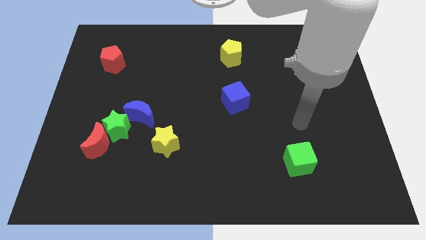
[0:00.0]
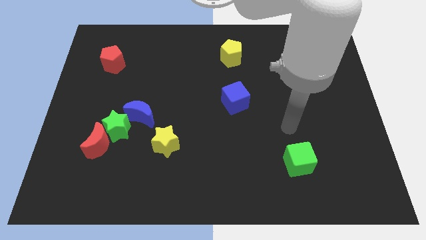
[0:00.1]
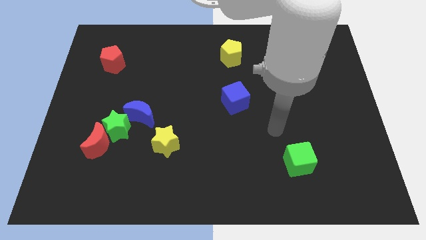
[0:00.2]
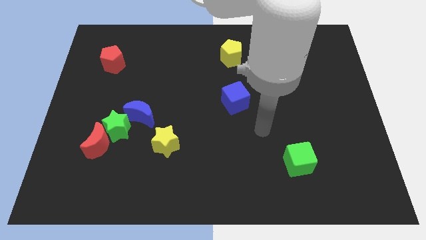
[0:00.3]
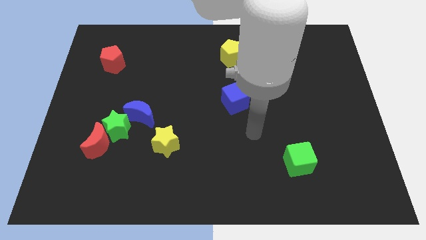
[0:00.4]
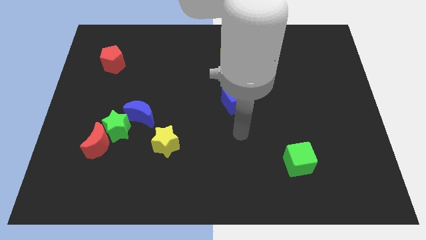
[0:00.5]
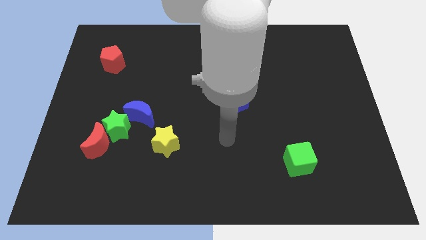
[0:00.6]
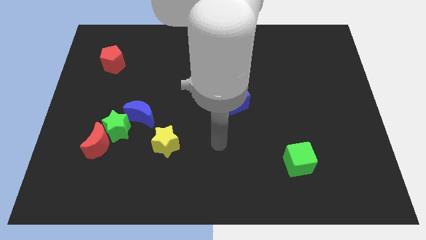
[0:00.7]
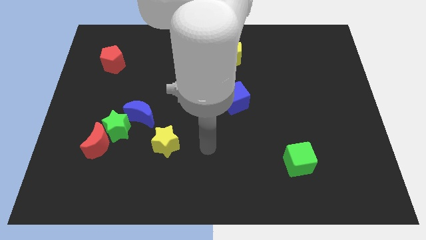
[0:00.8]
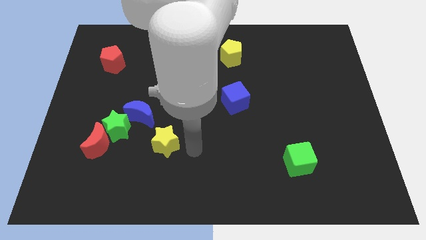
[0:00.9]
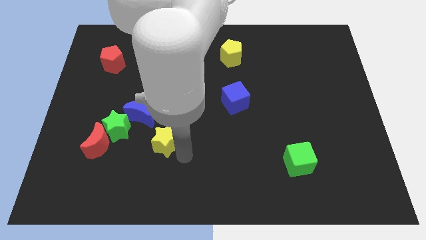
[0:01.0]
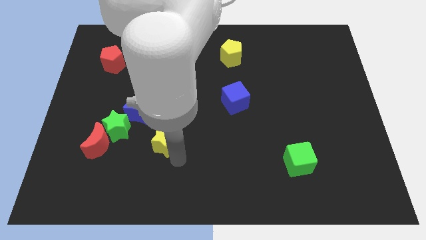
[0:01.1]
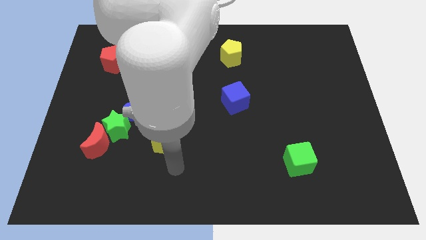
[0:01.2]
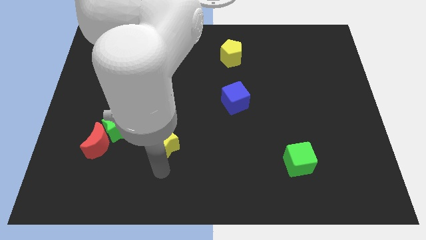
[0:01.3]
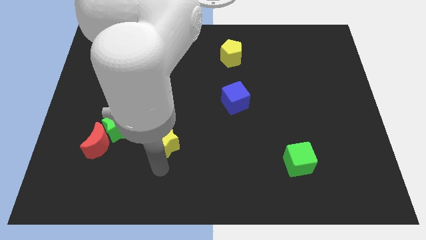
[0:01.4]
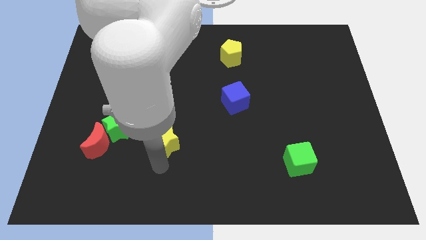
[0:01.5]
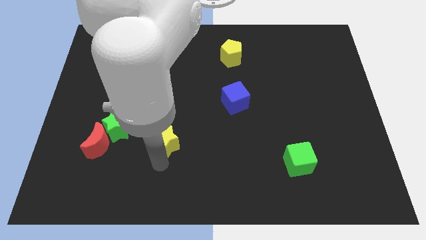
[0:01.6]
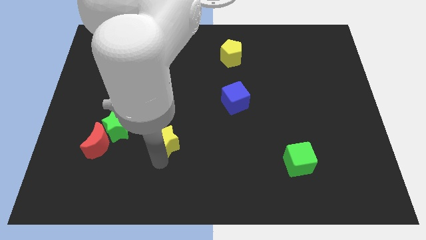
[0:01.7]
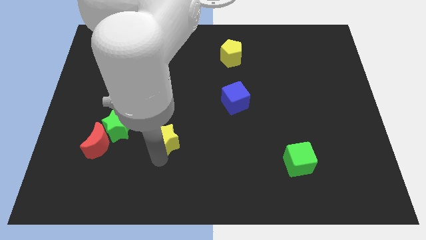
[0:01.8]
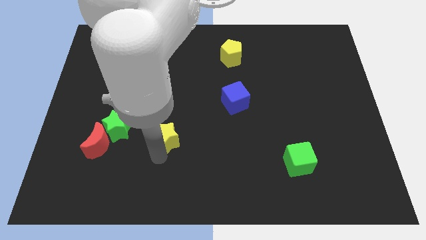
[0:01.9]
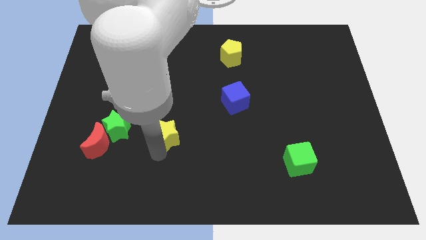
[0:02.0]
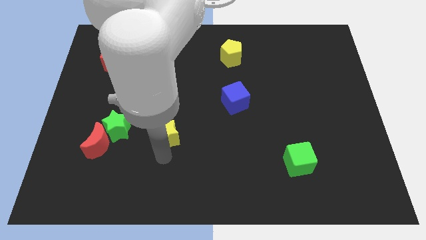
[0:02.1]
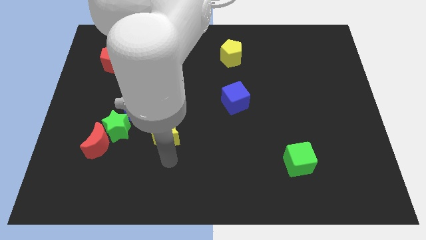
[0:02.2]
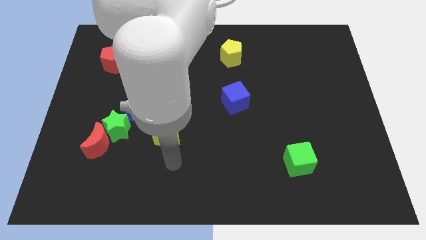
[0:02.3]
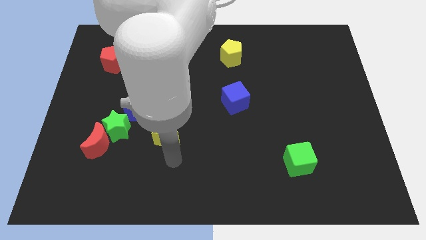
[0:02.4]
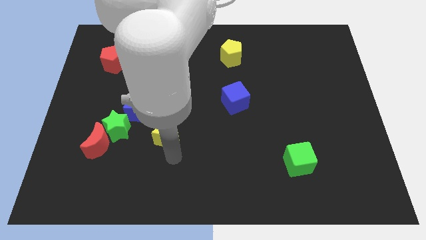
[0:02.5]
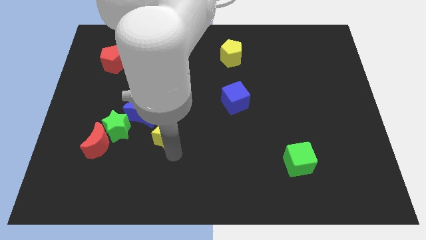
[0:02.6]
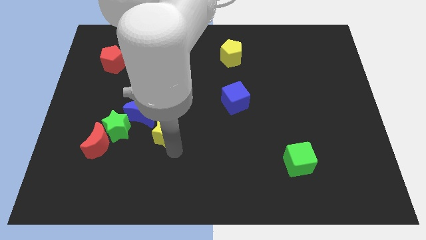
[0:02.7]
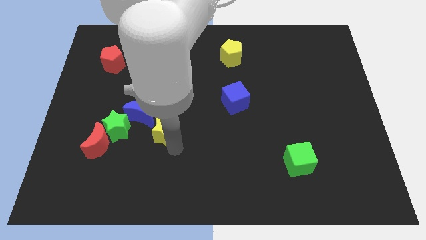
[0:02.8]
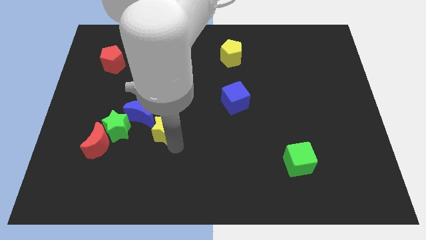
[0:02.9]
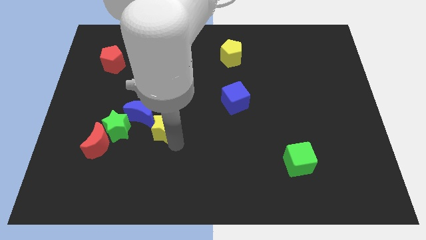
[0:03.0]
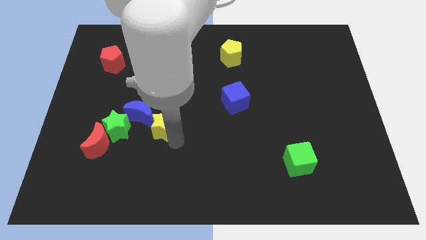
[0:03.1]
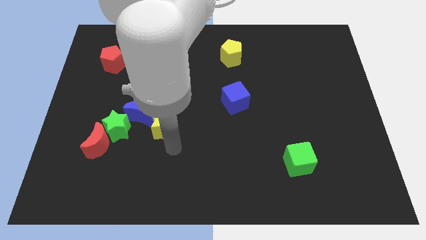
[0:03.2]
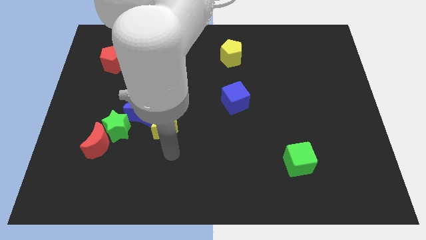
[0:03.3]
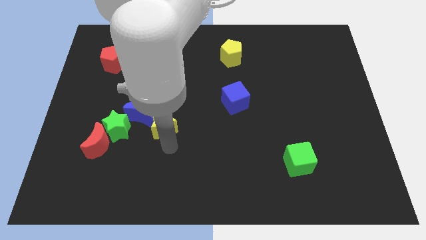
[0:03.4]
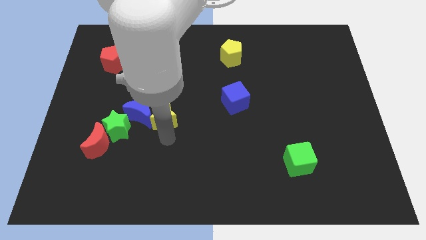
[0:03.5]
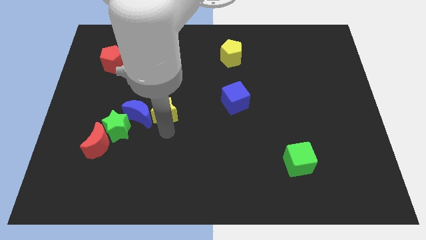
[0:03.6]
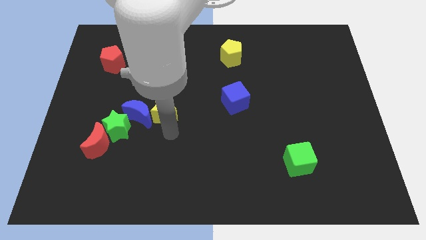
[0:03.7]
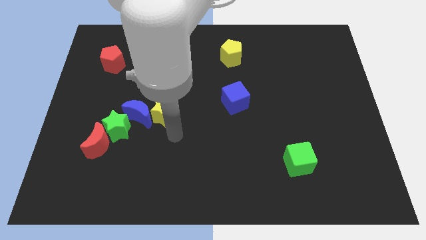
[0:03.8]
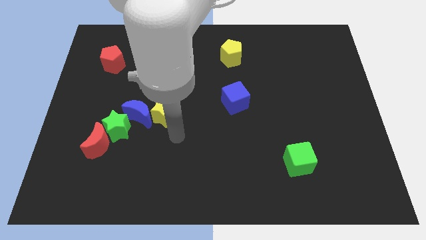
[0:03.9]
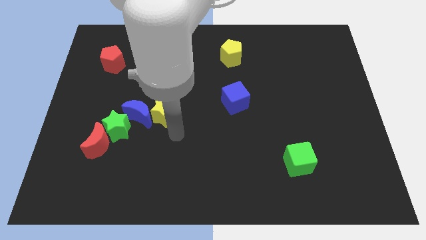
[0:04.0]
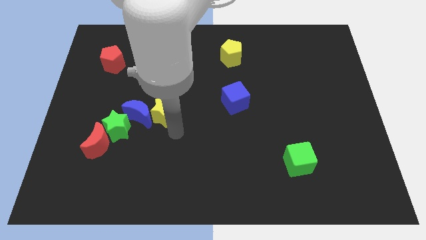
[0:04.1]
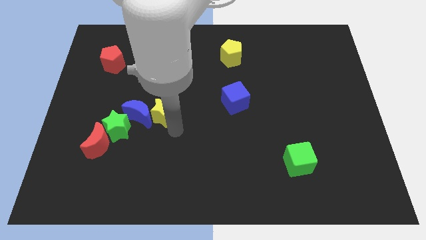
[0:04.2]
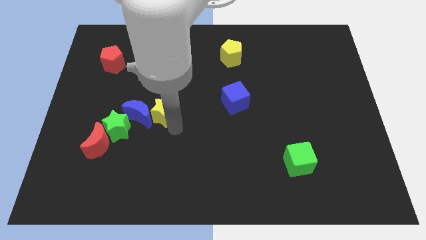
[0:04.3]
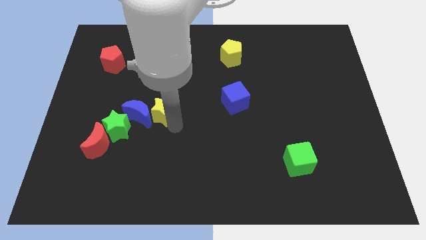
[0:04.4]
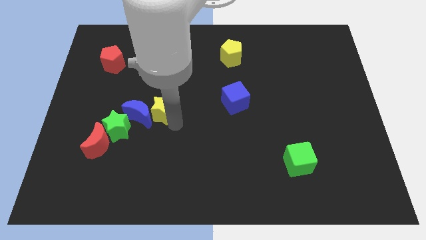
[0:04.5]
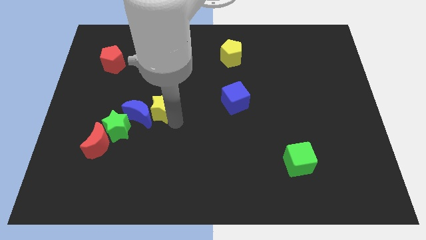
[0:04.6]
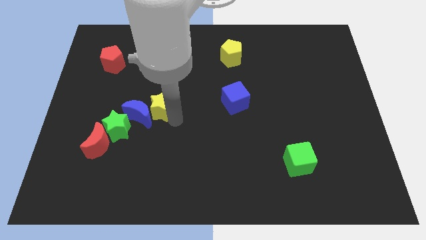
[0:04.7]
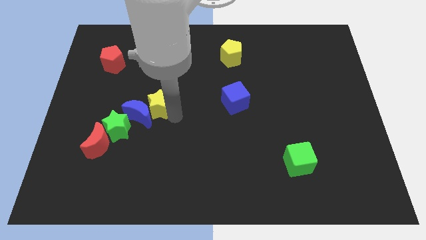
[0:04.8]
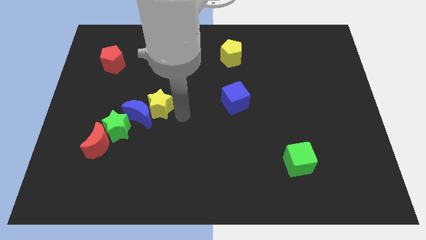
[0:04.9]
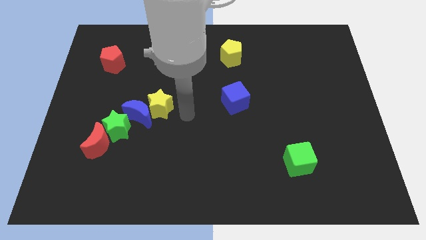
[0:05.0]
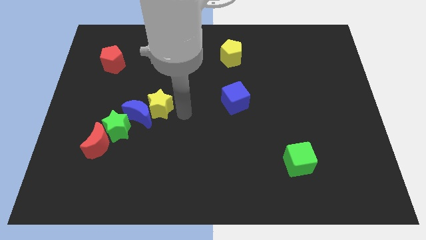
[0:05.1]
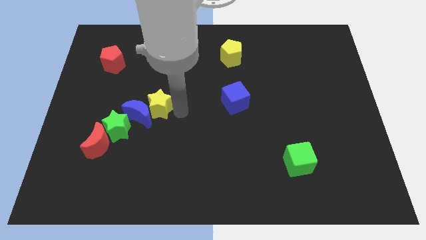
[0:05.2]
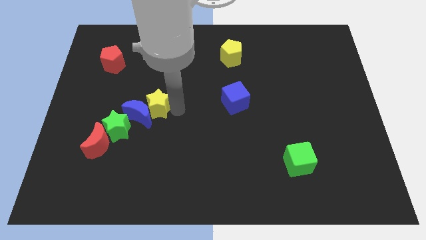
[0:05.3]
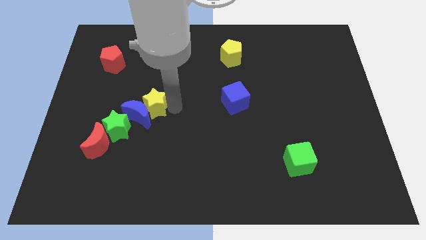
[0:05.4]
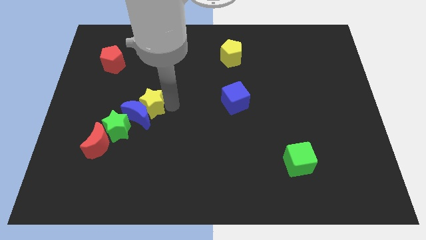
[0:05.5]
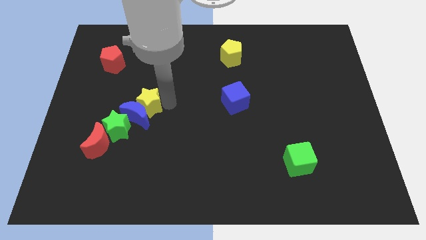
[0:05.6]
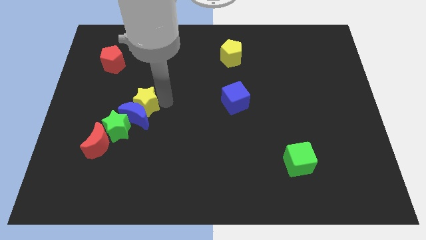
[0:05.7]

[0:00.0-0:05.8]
move the yellow star to the top left of the blue moon

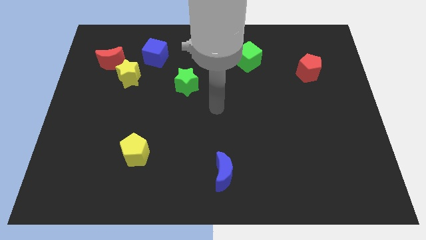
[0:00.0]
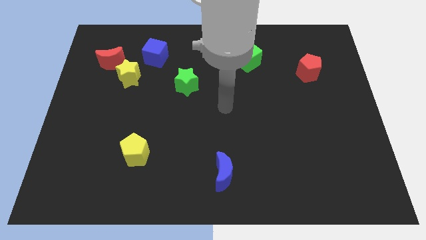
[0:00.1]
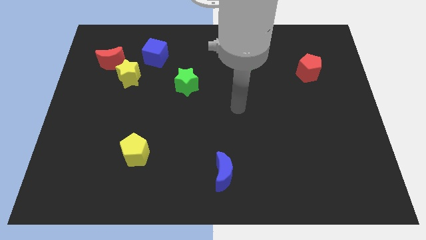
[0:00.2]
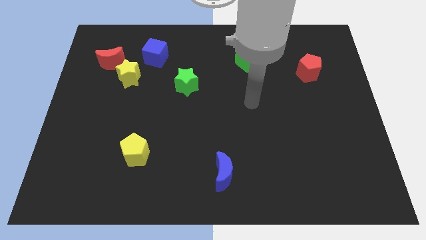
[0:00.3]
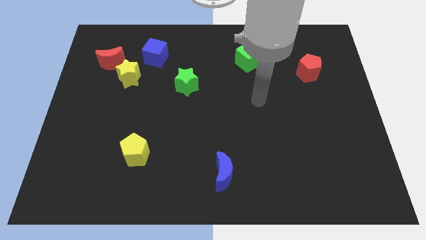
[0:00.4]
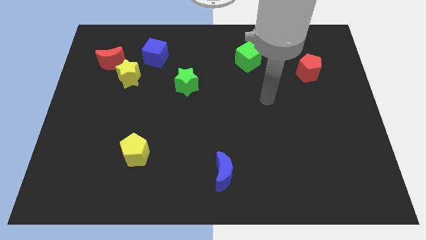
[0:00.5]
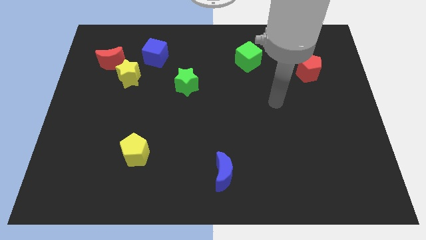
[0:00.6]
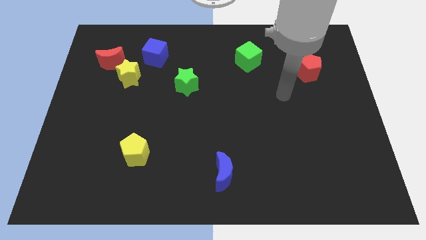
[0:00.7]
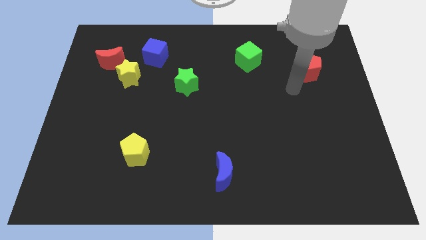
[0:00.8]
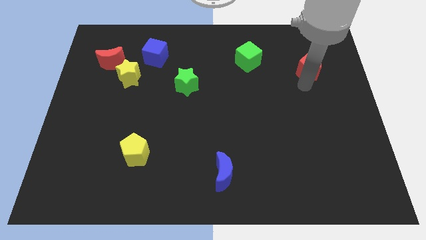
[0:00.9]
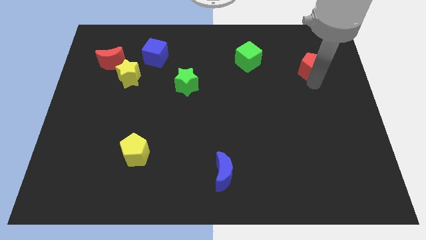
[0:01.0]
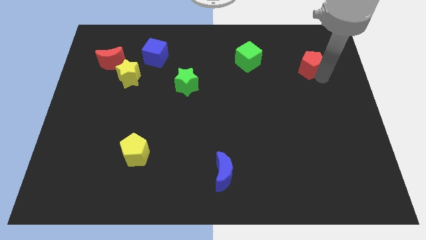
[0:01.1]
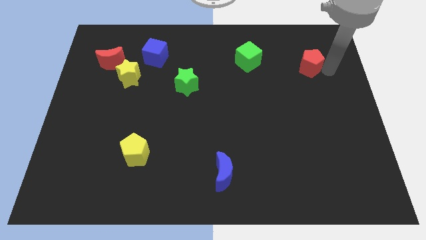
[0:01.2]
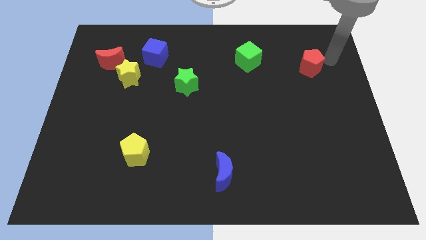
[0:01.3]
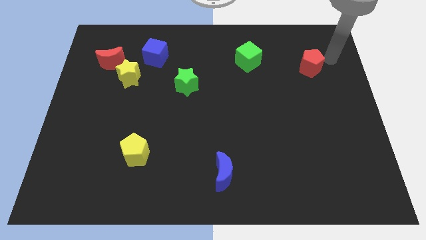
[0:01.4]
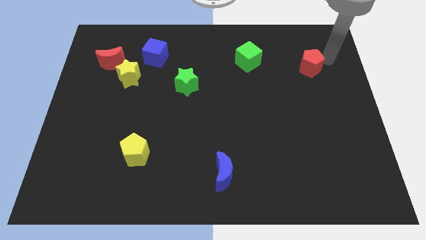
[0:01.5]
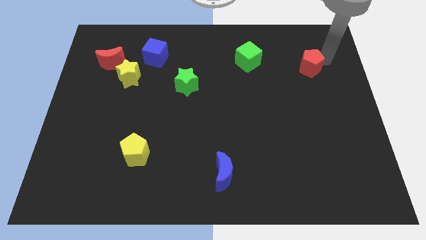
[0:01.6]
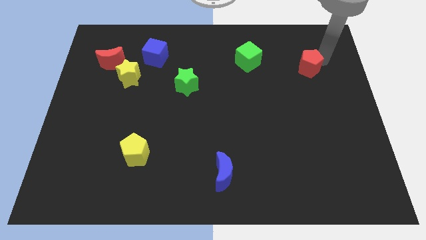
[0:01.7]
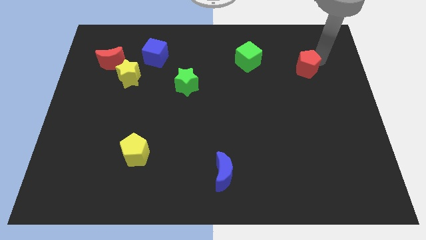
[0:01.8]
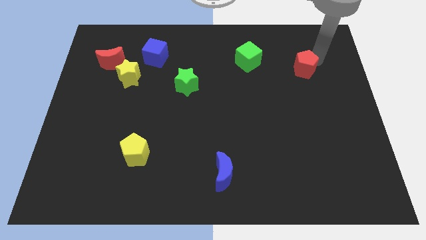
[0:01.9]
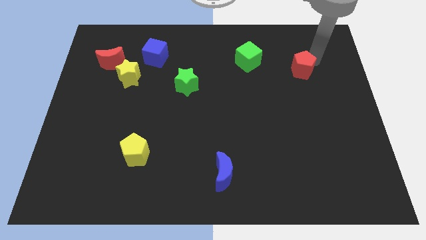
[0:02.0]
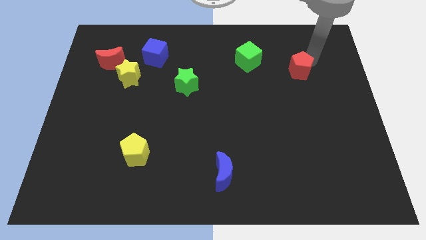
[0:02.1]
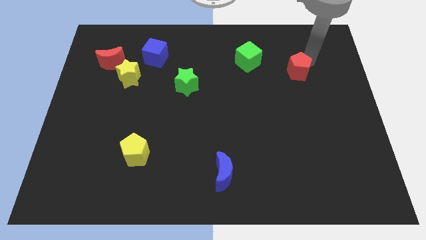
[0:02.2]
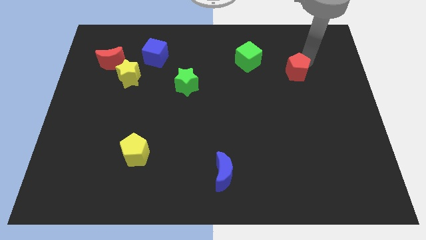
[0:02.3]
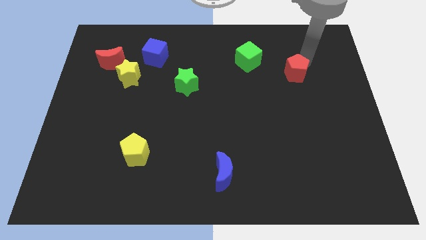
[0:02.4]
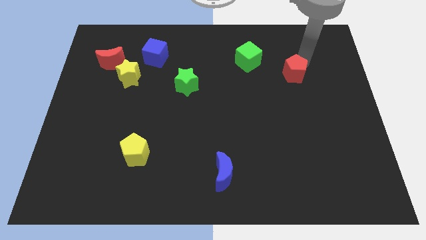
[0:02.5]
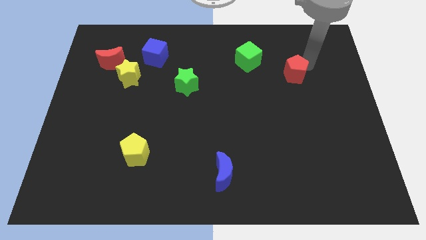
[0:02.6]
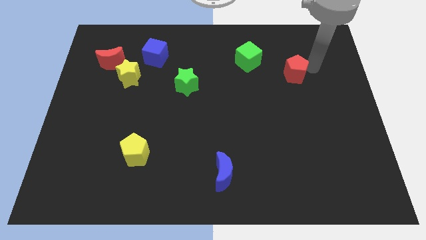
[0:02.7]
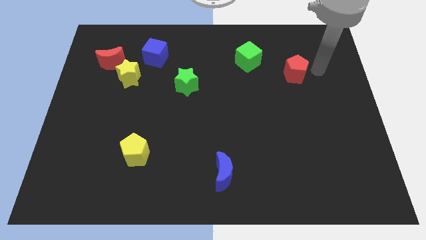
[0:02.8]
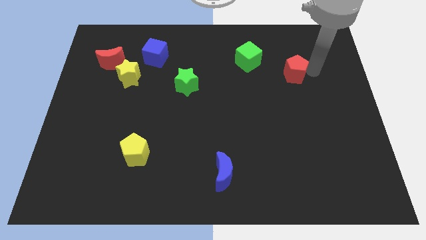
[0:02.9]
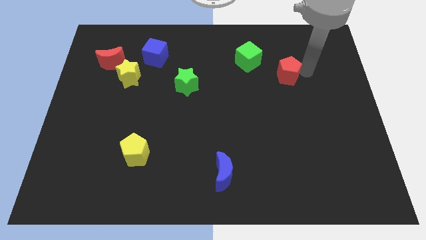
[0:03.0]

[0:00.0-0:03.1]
move the red pentagon diagonally down and to the right of the green cube
